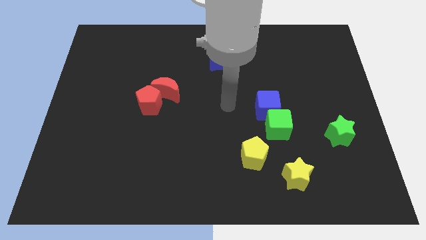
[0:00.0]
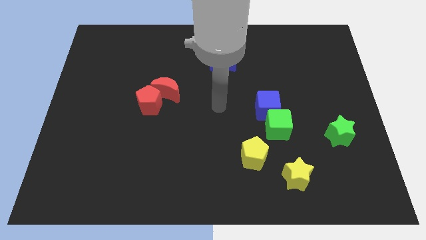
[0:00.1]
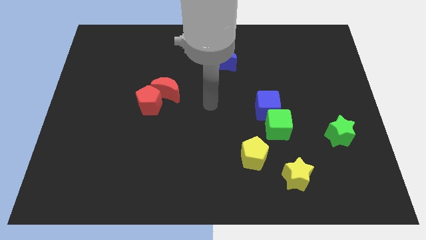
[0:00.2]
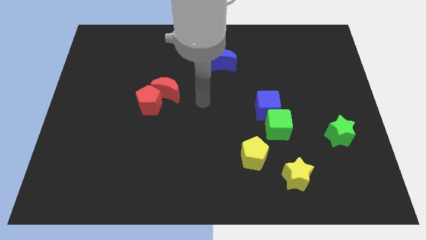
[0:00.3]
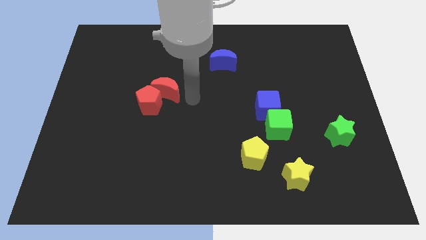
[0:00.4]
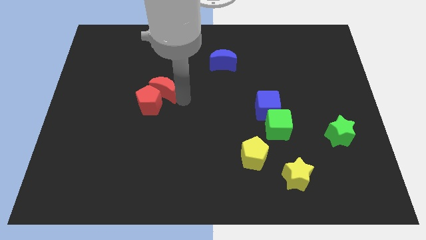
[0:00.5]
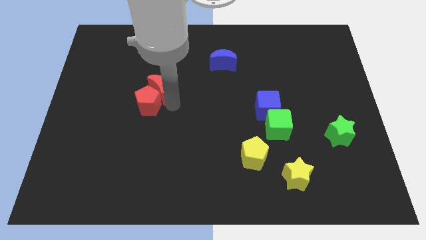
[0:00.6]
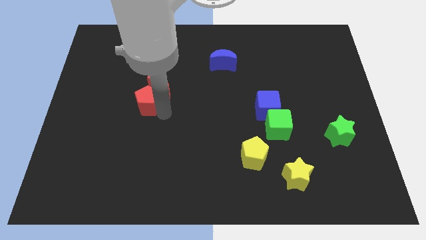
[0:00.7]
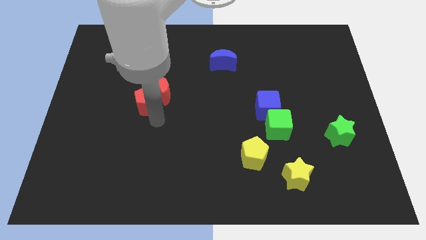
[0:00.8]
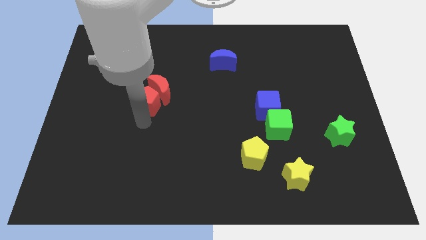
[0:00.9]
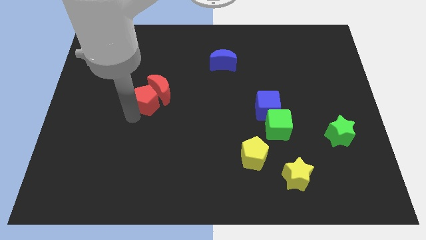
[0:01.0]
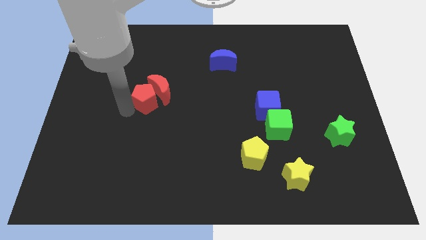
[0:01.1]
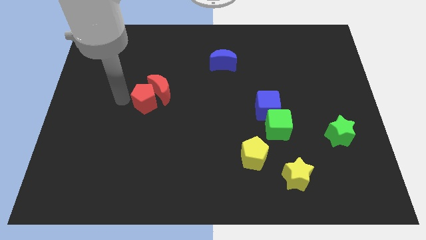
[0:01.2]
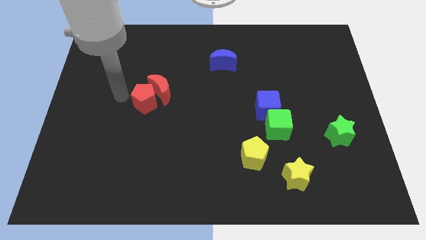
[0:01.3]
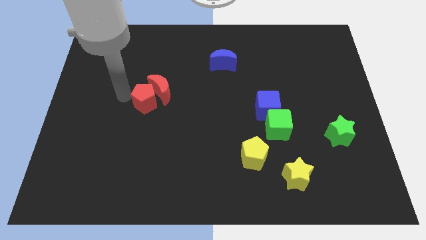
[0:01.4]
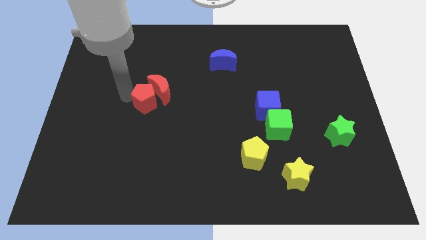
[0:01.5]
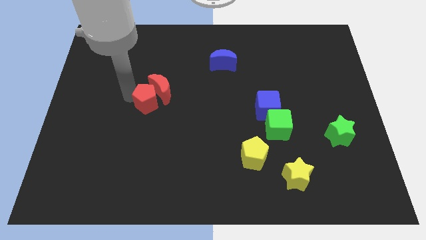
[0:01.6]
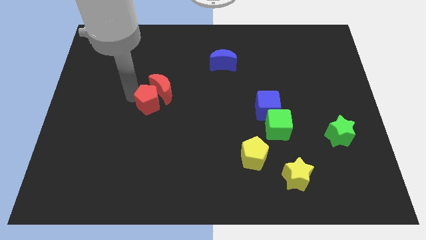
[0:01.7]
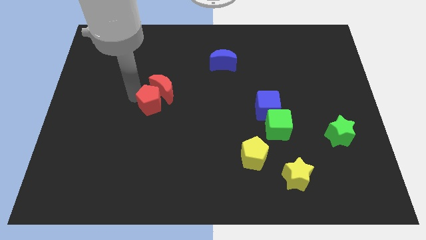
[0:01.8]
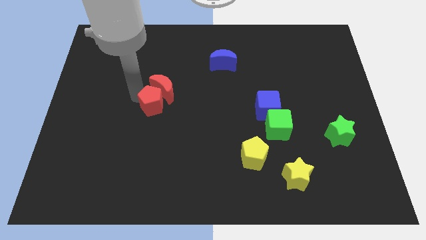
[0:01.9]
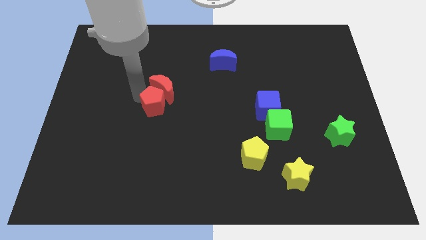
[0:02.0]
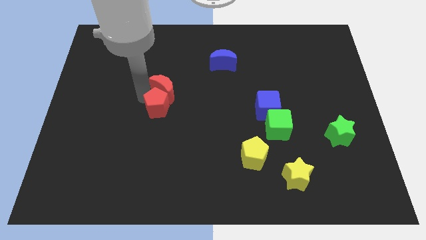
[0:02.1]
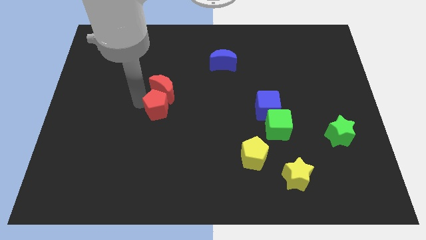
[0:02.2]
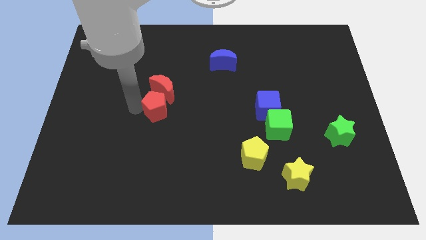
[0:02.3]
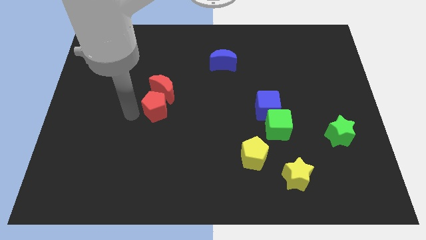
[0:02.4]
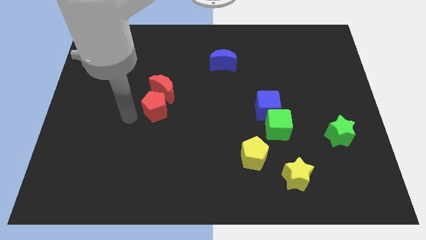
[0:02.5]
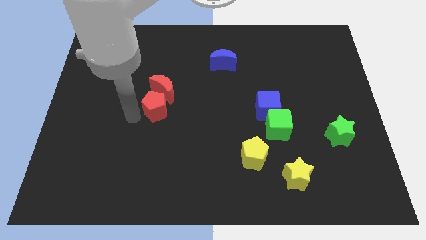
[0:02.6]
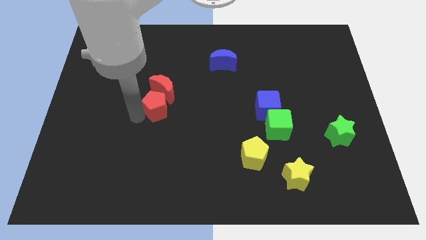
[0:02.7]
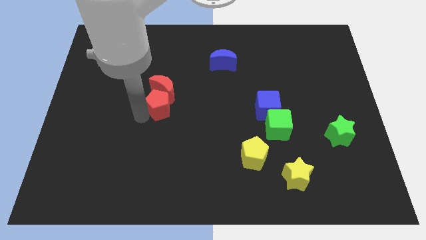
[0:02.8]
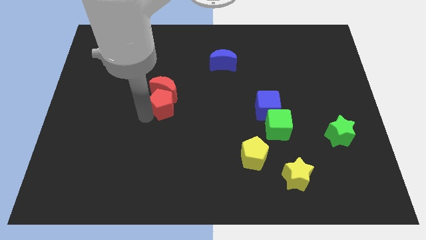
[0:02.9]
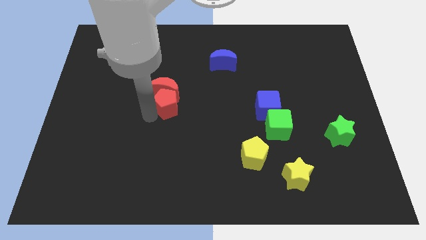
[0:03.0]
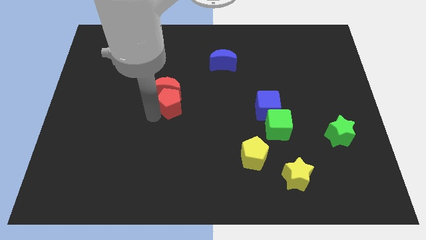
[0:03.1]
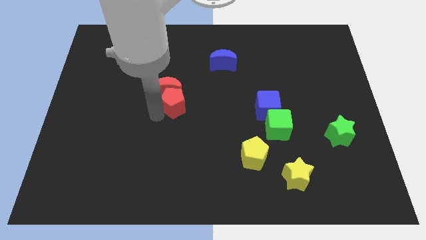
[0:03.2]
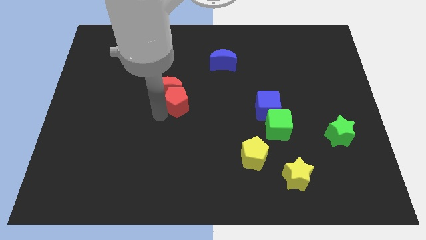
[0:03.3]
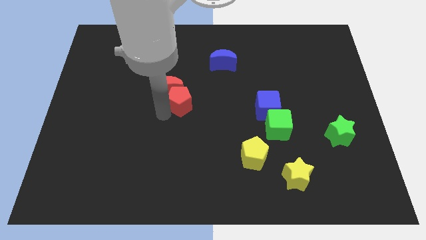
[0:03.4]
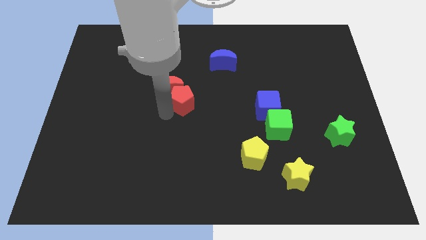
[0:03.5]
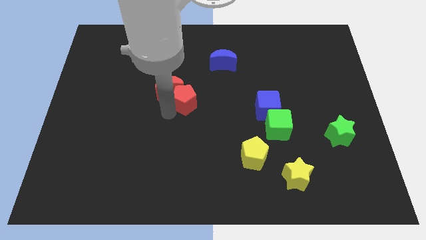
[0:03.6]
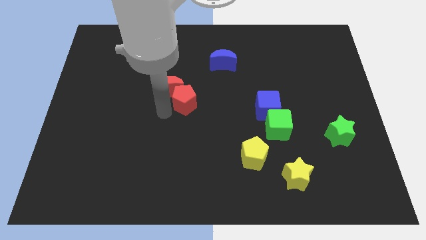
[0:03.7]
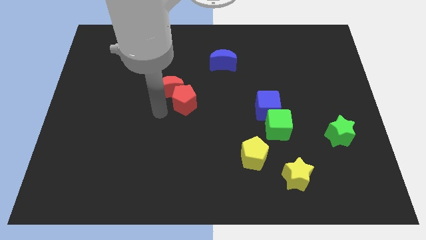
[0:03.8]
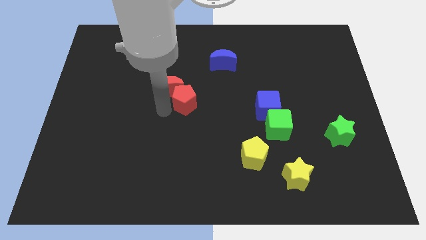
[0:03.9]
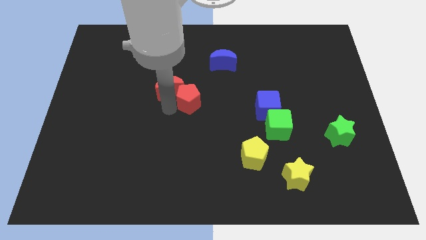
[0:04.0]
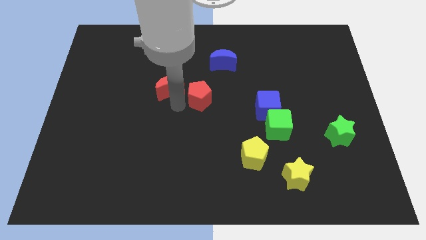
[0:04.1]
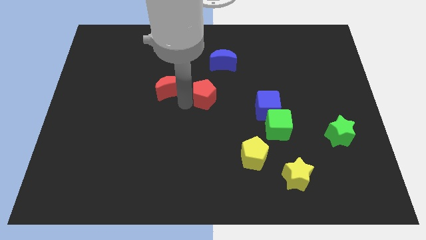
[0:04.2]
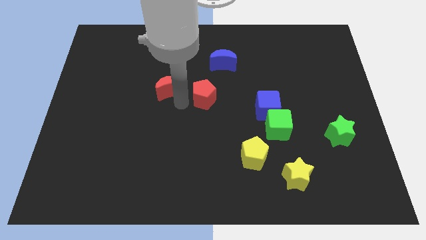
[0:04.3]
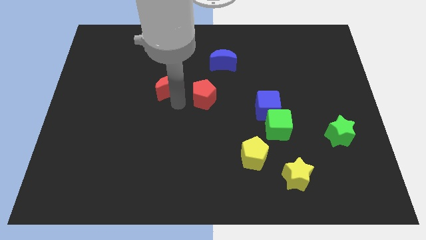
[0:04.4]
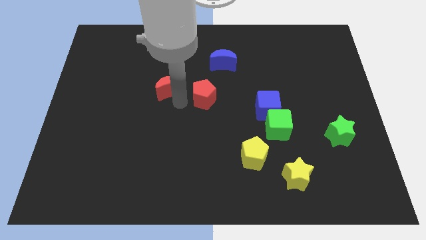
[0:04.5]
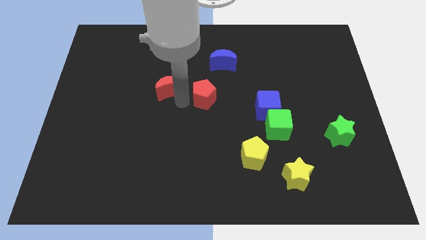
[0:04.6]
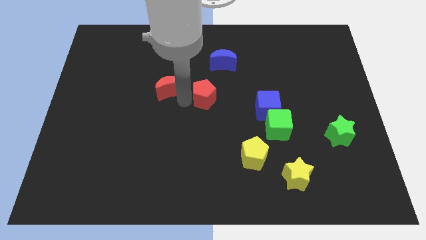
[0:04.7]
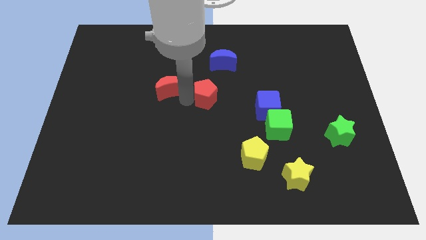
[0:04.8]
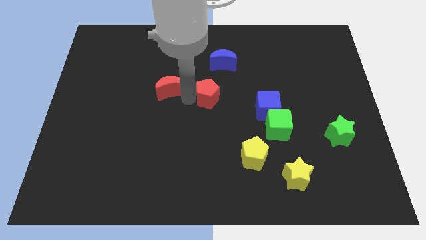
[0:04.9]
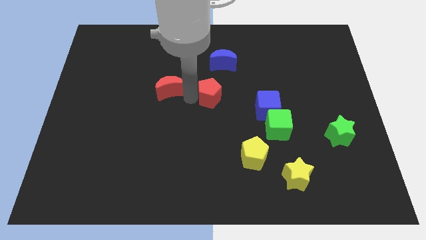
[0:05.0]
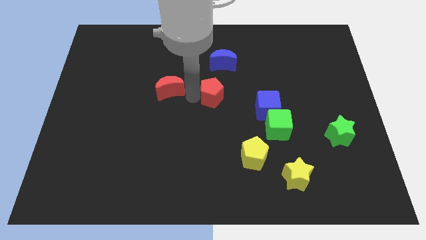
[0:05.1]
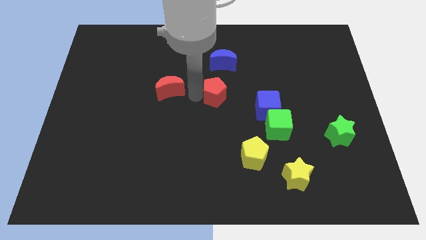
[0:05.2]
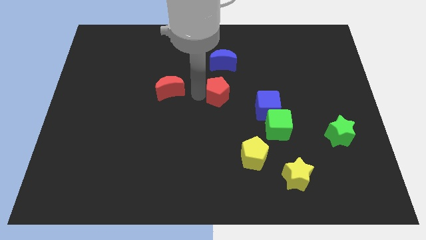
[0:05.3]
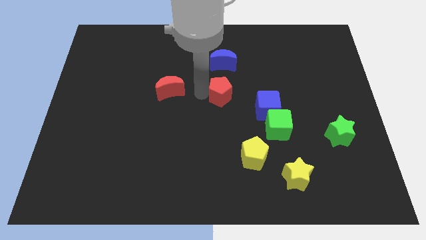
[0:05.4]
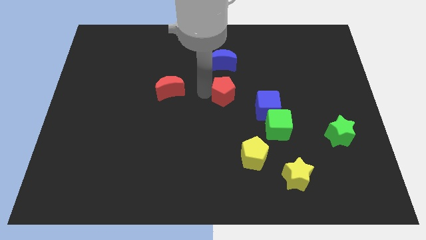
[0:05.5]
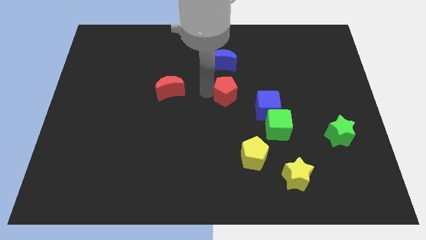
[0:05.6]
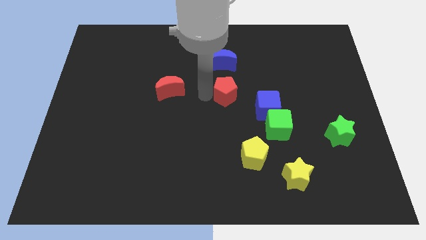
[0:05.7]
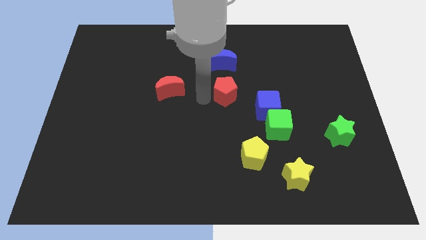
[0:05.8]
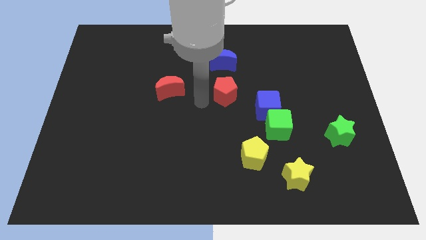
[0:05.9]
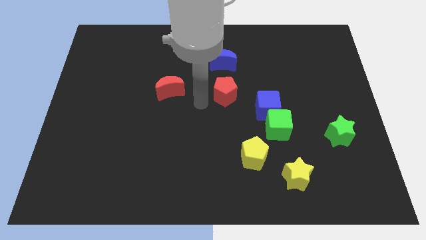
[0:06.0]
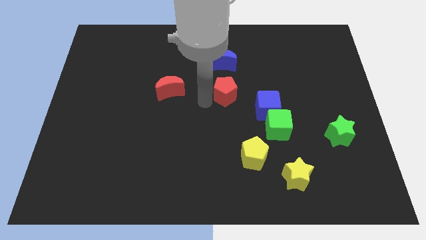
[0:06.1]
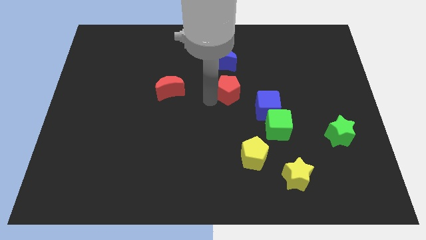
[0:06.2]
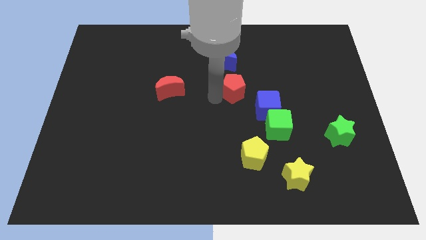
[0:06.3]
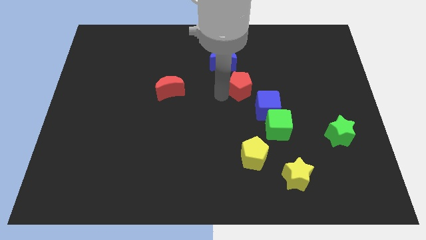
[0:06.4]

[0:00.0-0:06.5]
move the red pentagon to the right

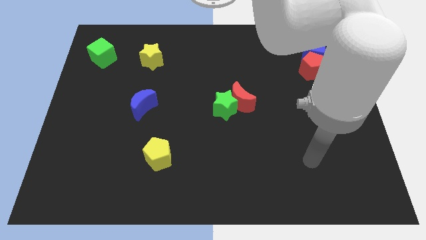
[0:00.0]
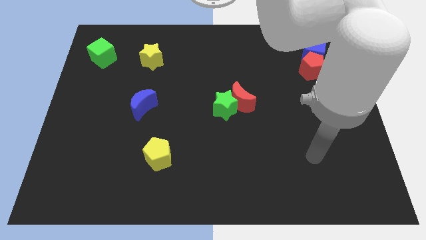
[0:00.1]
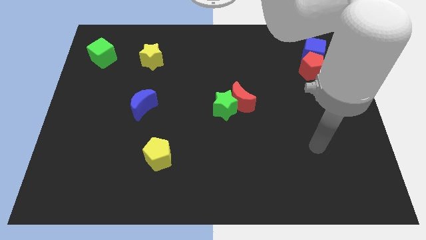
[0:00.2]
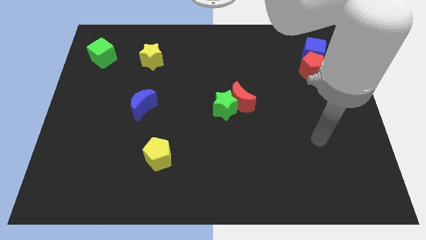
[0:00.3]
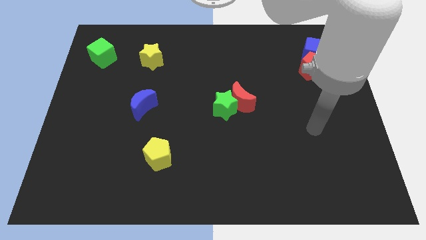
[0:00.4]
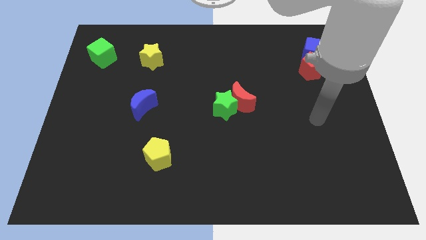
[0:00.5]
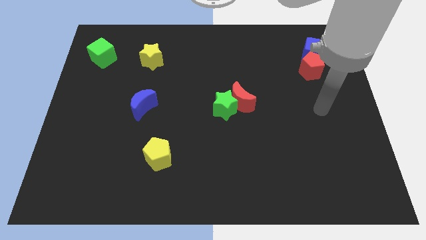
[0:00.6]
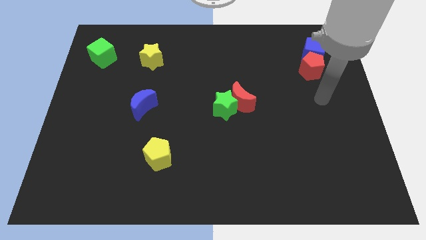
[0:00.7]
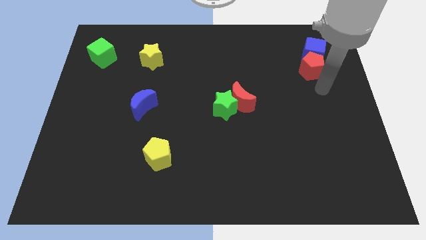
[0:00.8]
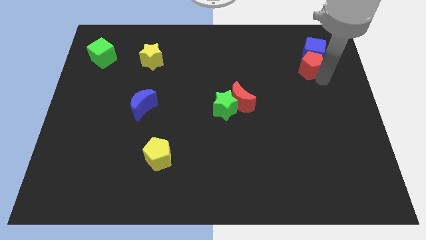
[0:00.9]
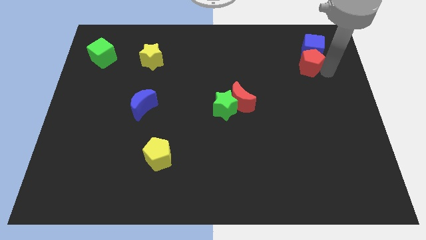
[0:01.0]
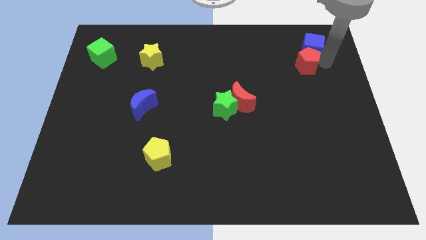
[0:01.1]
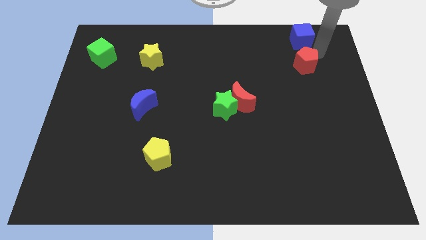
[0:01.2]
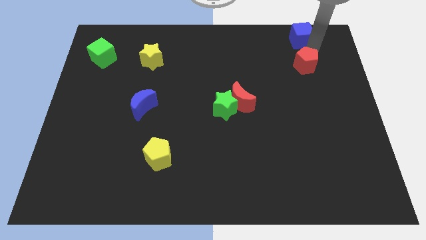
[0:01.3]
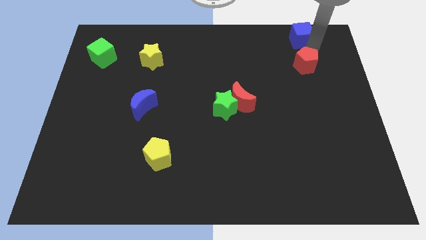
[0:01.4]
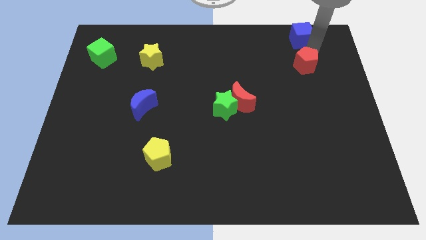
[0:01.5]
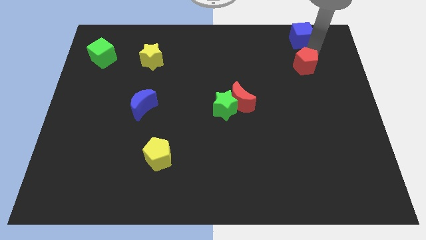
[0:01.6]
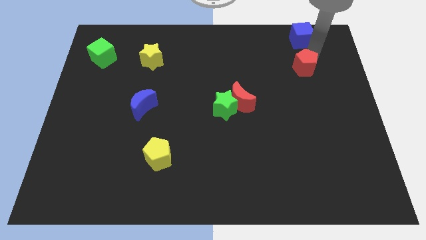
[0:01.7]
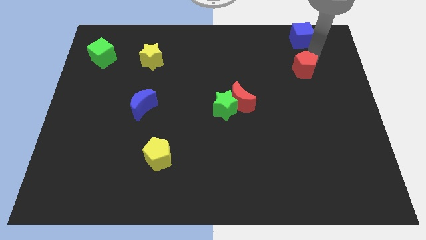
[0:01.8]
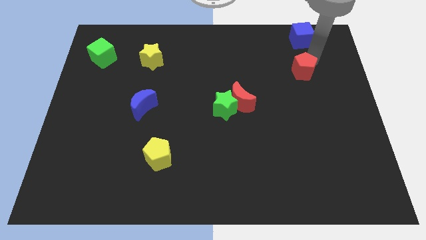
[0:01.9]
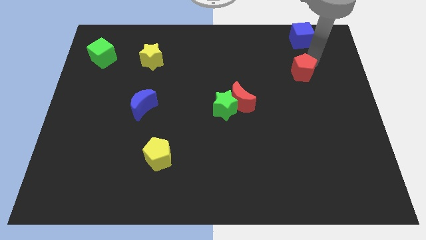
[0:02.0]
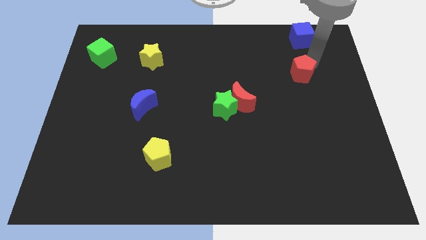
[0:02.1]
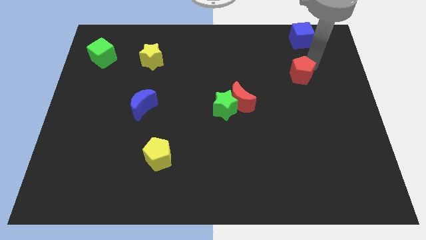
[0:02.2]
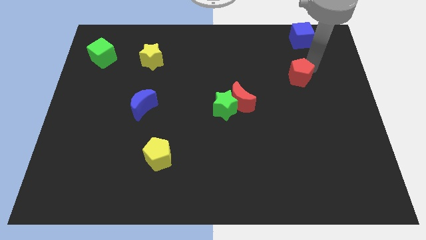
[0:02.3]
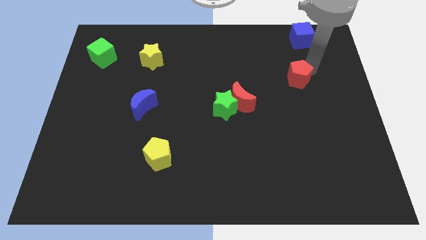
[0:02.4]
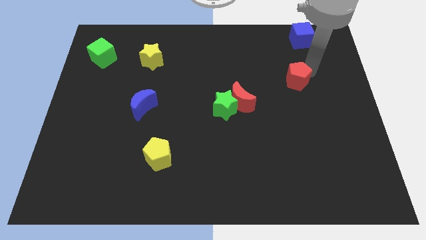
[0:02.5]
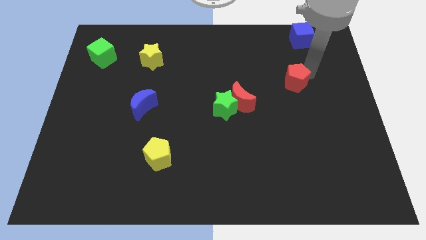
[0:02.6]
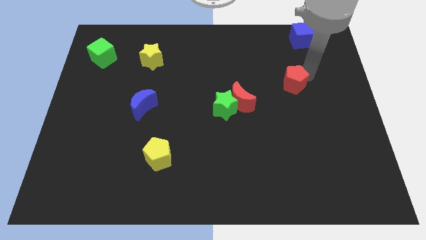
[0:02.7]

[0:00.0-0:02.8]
move the red pentagon a little downwards and to the left
